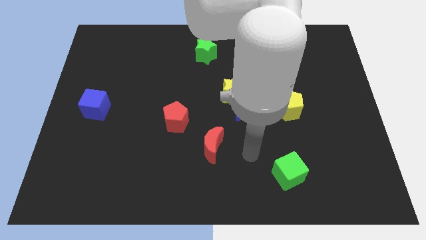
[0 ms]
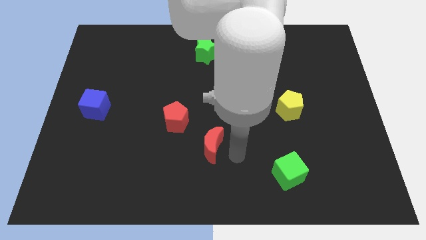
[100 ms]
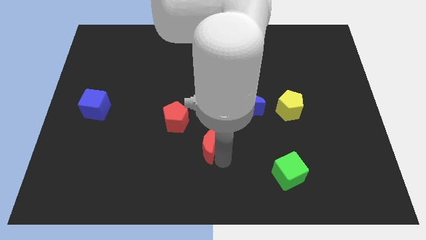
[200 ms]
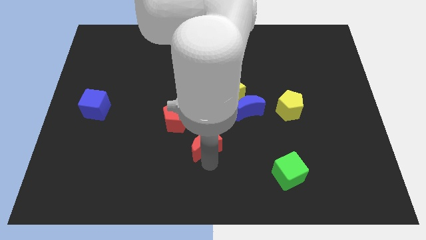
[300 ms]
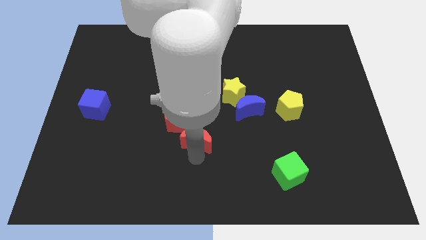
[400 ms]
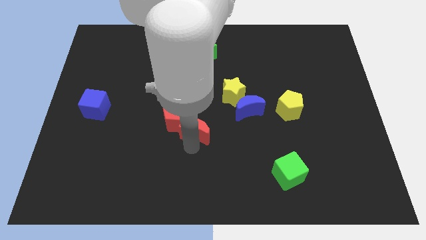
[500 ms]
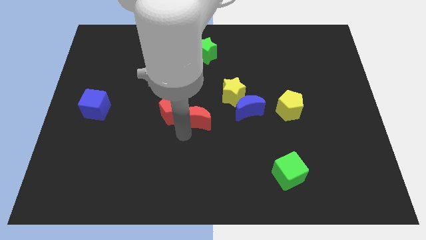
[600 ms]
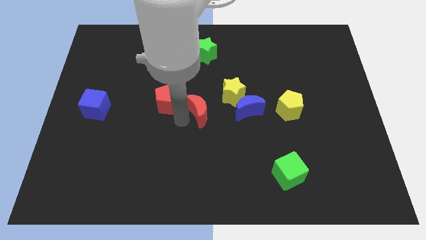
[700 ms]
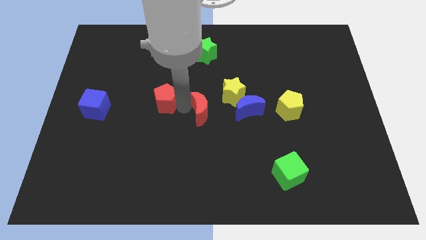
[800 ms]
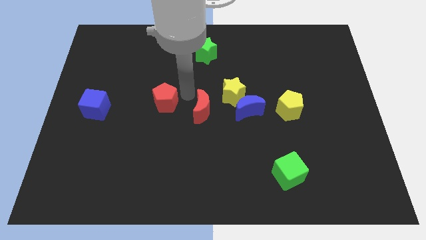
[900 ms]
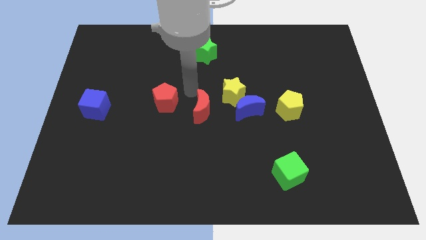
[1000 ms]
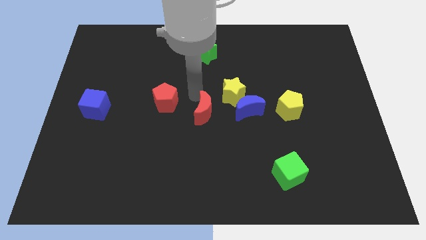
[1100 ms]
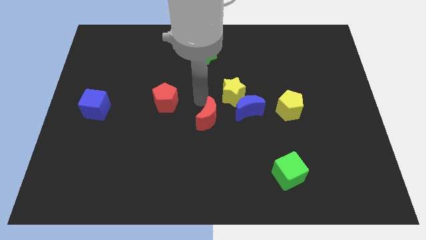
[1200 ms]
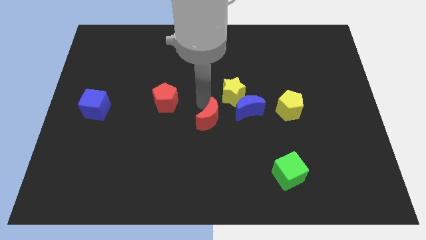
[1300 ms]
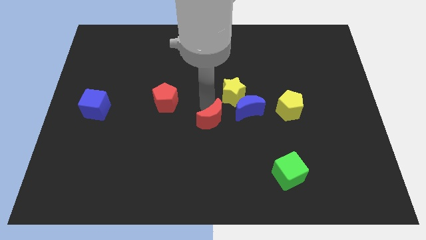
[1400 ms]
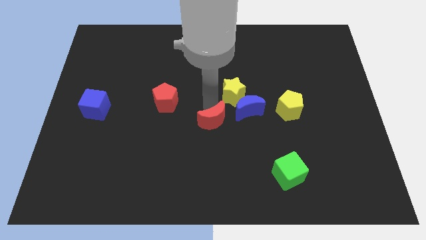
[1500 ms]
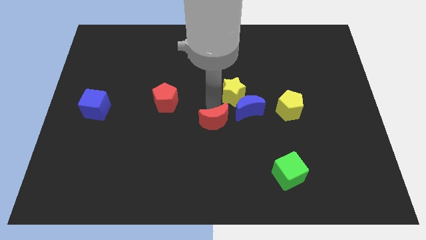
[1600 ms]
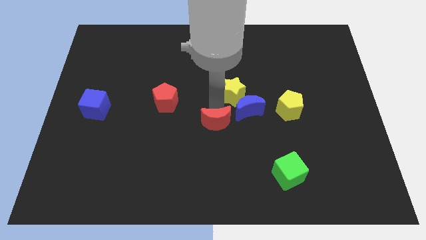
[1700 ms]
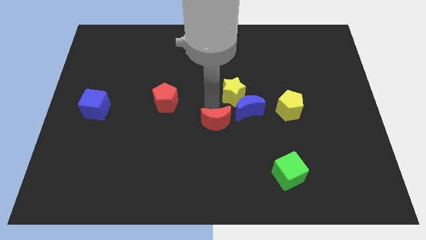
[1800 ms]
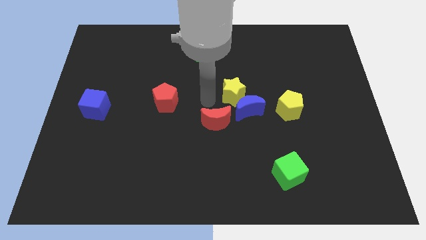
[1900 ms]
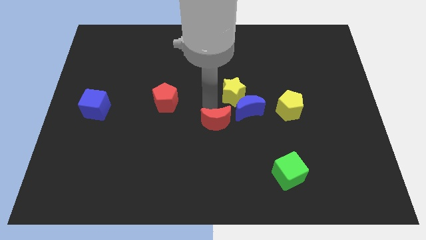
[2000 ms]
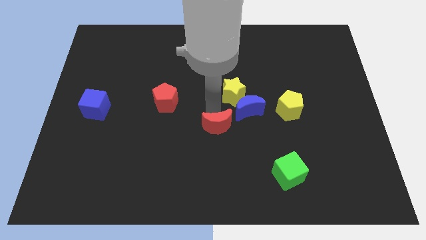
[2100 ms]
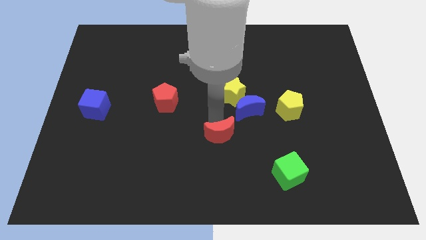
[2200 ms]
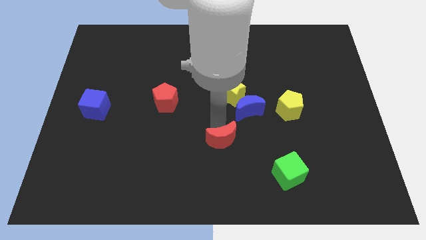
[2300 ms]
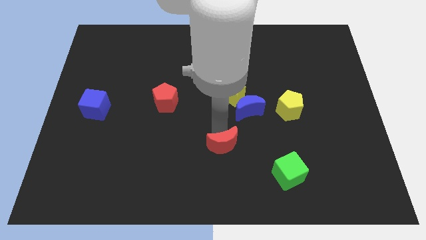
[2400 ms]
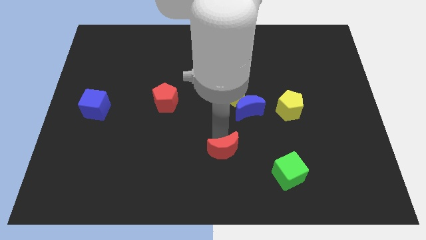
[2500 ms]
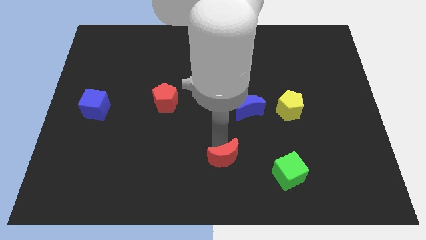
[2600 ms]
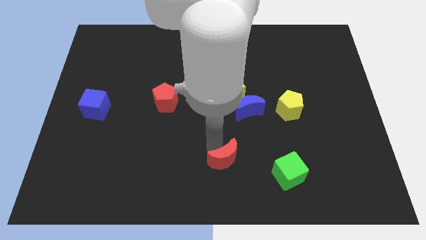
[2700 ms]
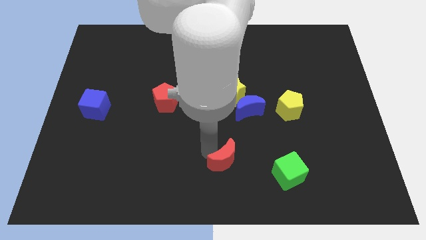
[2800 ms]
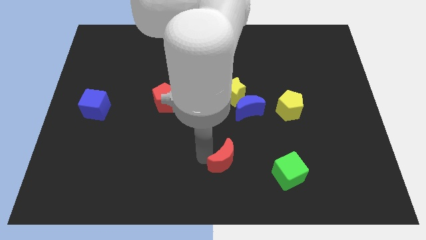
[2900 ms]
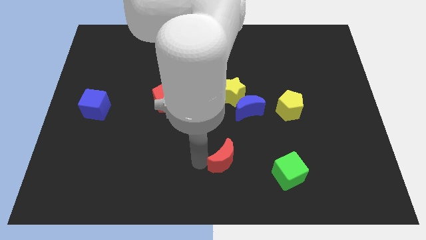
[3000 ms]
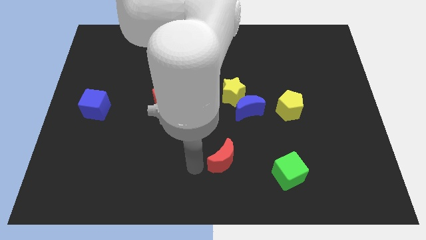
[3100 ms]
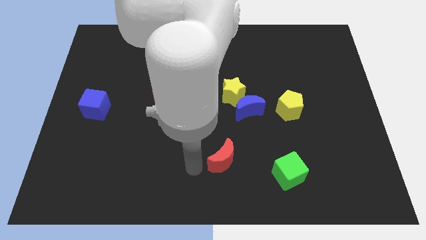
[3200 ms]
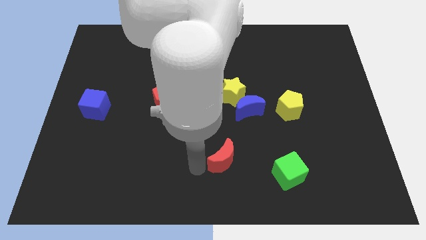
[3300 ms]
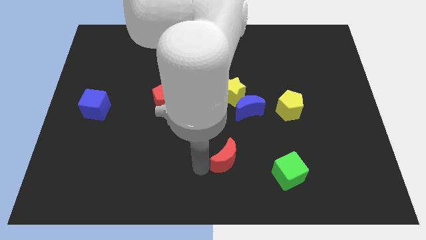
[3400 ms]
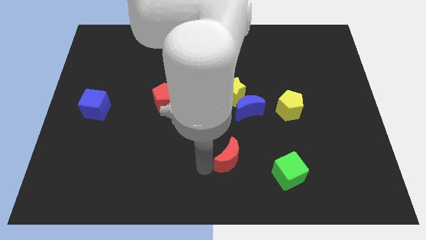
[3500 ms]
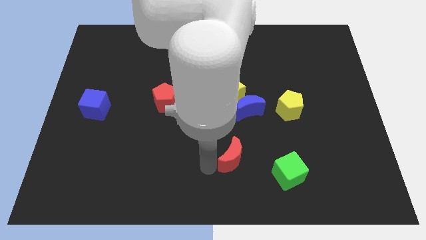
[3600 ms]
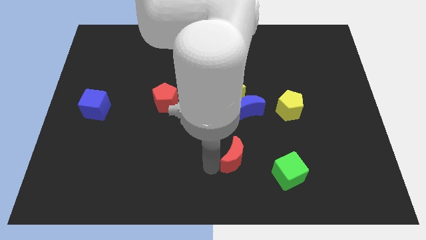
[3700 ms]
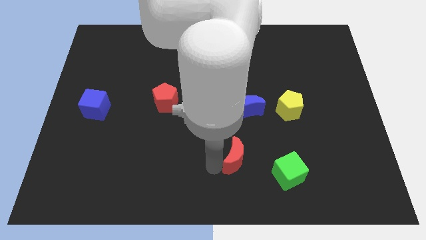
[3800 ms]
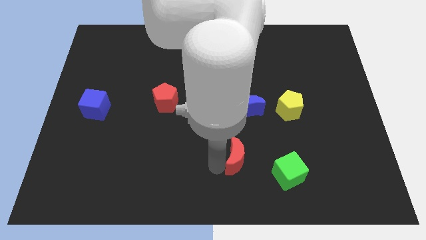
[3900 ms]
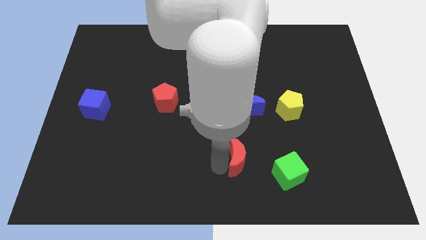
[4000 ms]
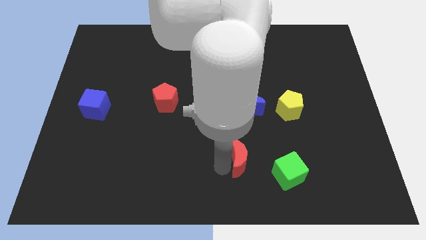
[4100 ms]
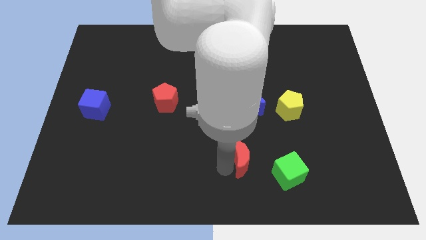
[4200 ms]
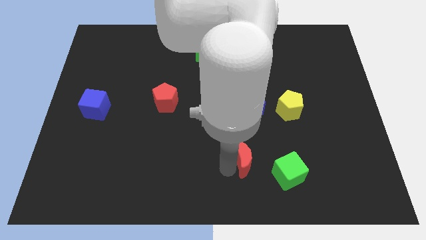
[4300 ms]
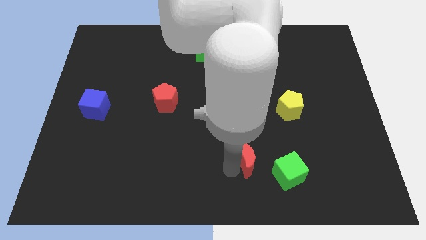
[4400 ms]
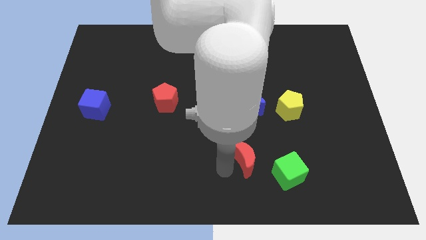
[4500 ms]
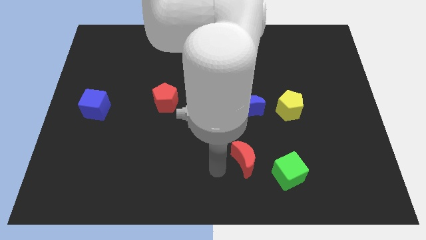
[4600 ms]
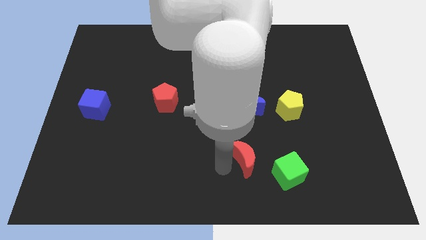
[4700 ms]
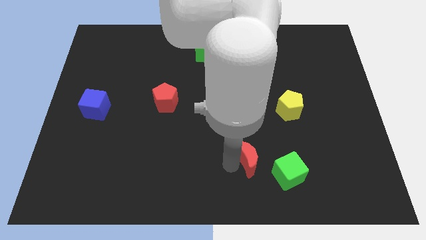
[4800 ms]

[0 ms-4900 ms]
push the red moon slightly to the right

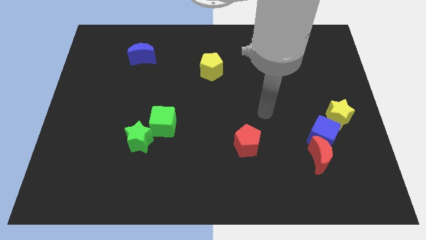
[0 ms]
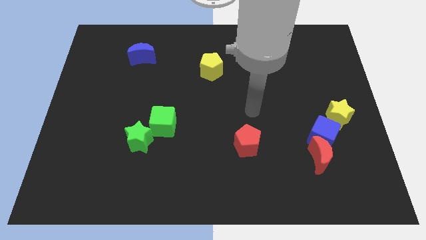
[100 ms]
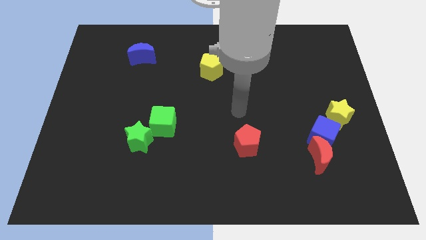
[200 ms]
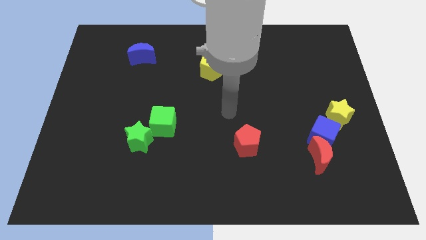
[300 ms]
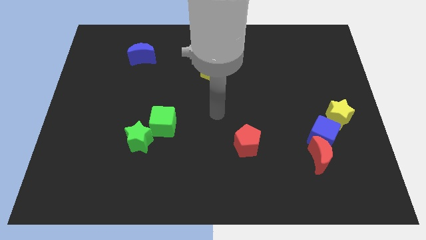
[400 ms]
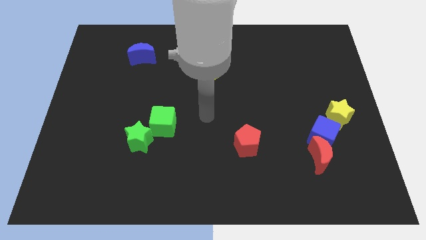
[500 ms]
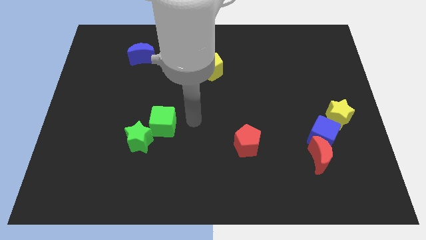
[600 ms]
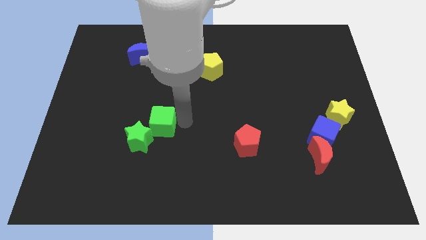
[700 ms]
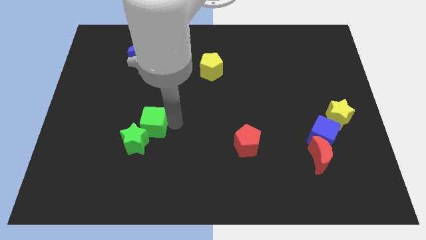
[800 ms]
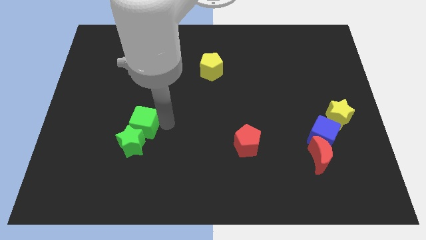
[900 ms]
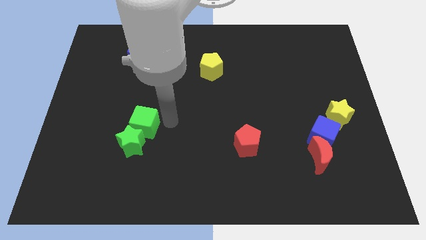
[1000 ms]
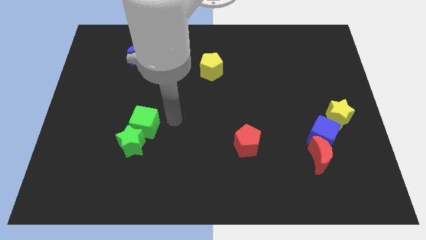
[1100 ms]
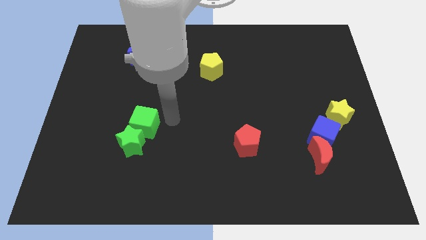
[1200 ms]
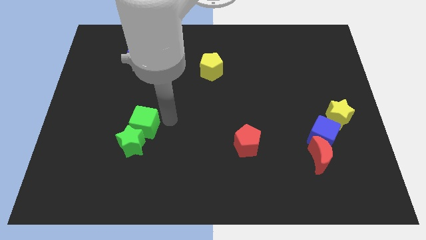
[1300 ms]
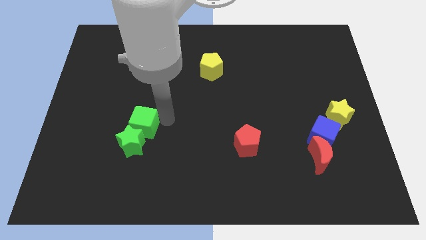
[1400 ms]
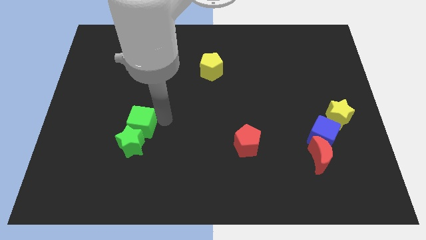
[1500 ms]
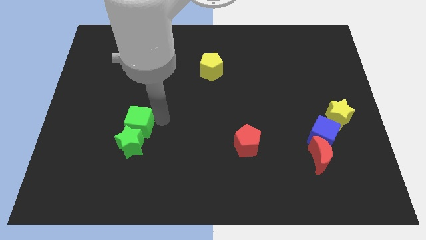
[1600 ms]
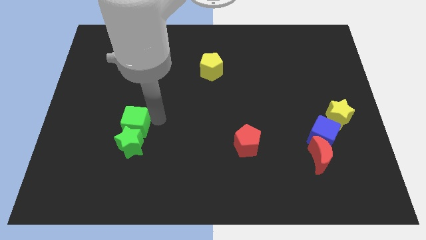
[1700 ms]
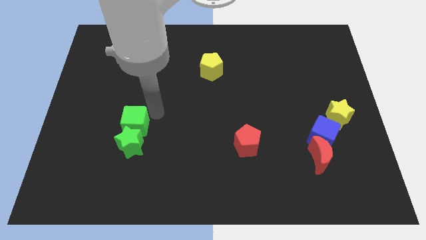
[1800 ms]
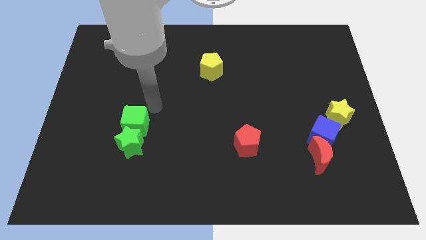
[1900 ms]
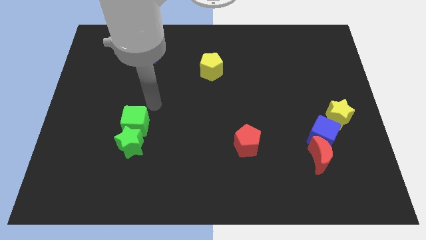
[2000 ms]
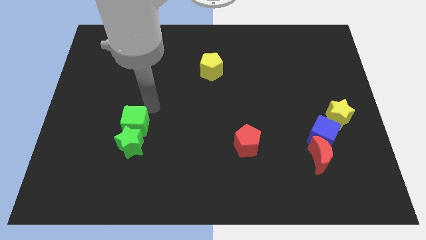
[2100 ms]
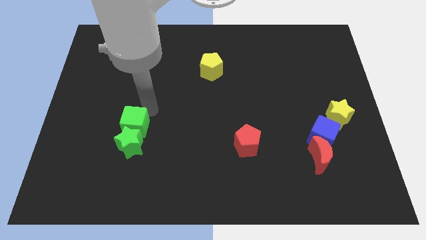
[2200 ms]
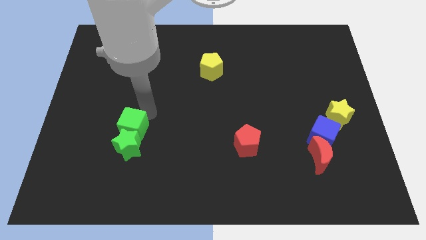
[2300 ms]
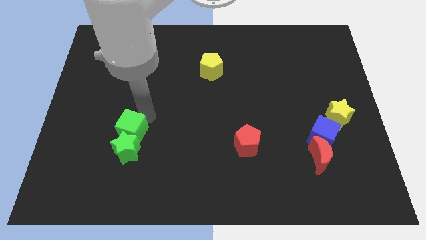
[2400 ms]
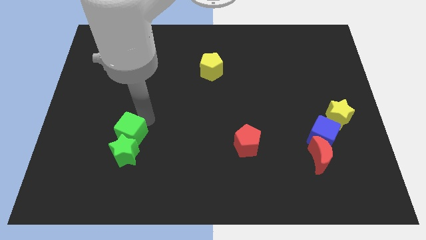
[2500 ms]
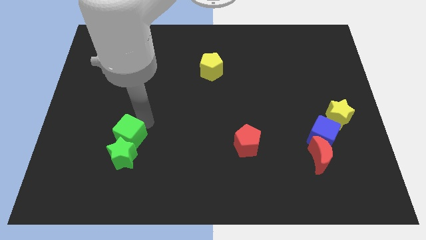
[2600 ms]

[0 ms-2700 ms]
slightly move the green cube downwards and to the left

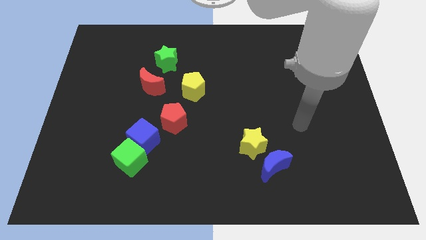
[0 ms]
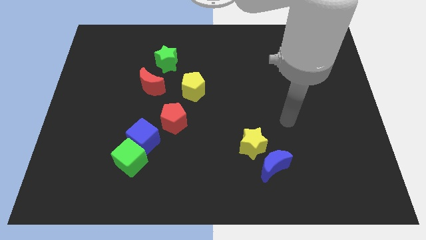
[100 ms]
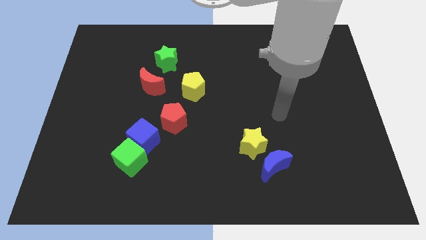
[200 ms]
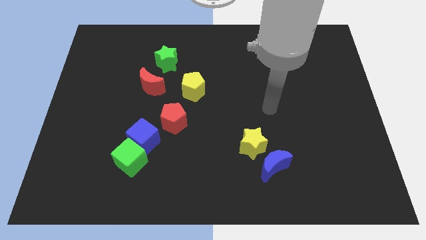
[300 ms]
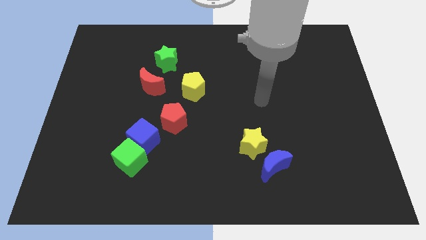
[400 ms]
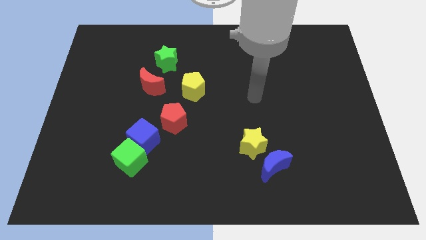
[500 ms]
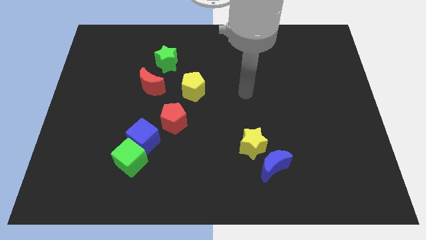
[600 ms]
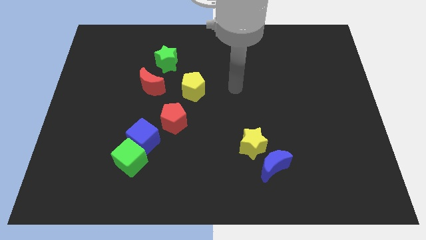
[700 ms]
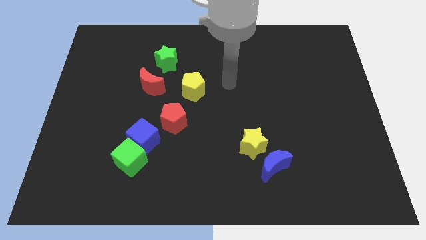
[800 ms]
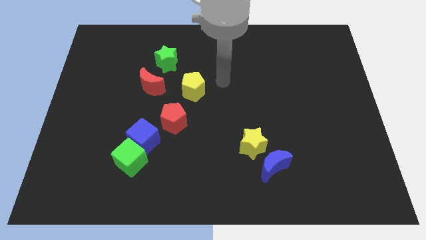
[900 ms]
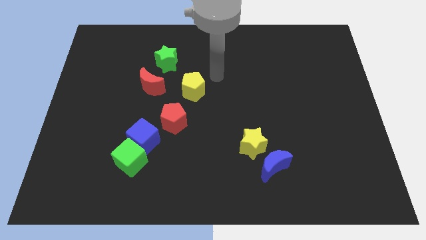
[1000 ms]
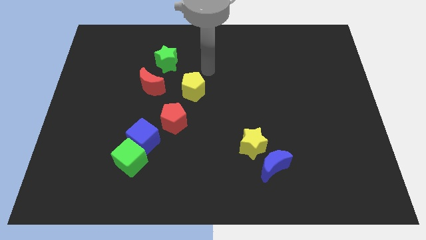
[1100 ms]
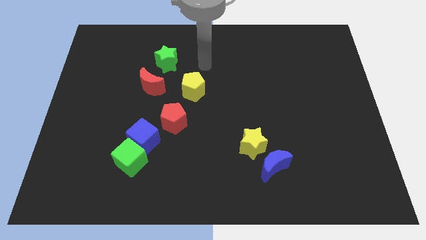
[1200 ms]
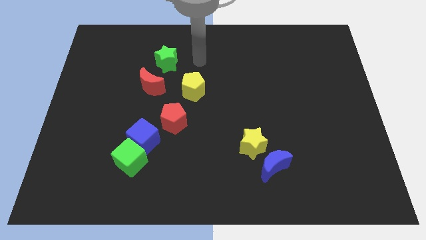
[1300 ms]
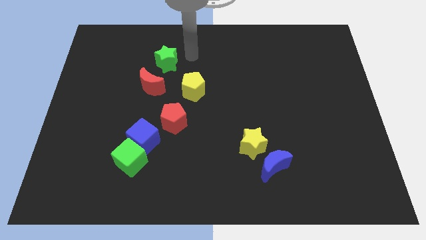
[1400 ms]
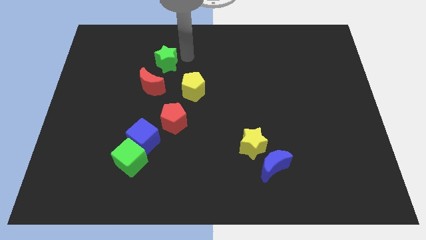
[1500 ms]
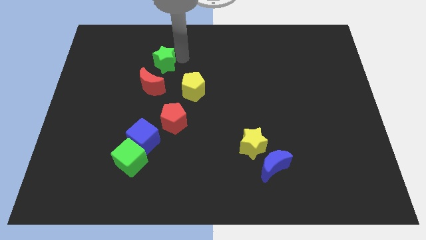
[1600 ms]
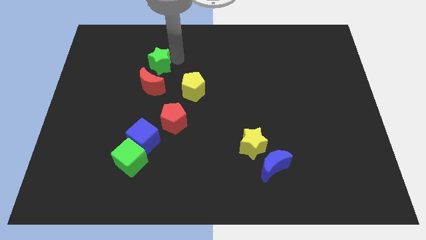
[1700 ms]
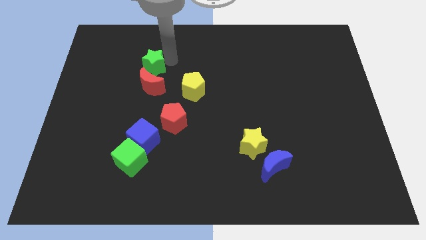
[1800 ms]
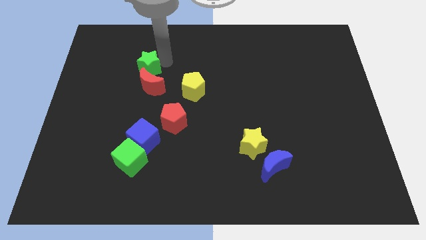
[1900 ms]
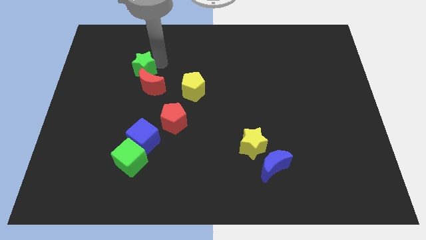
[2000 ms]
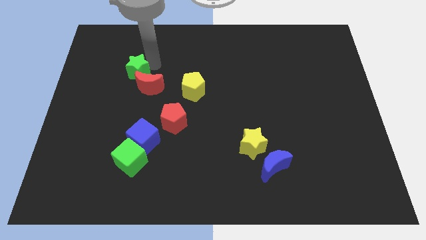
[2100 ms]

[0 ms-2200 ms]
push the green star somewhat down and to the left diagonally
